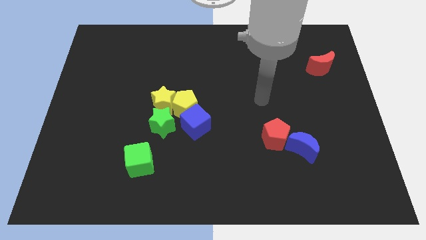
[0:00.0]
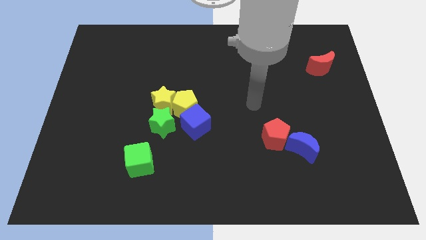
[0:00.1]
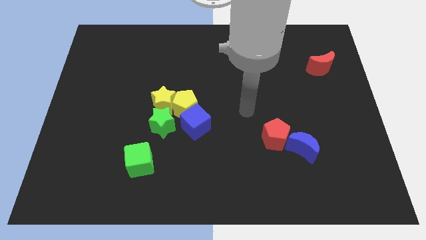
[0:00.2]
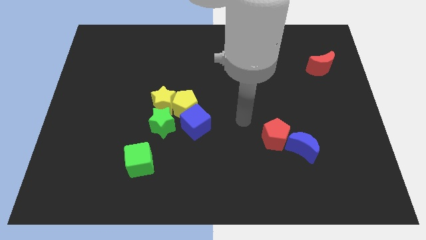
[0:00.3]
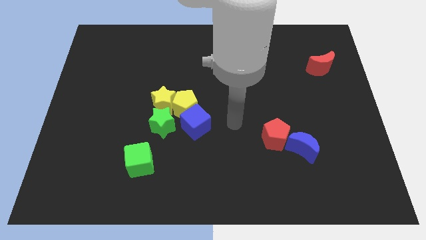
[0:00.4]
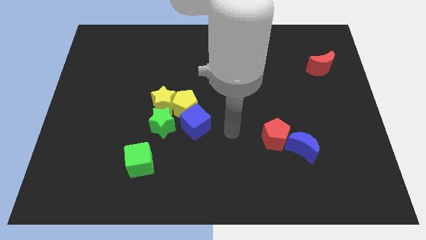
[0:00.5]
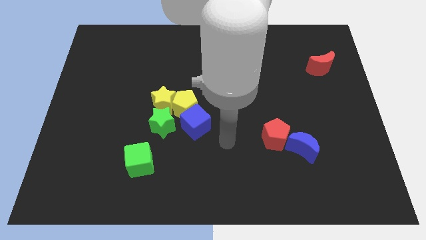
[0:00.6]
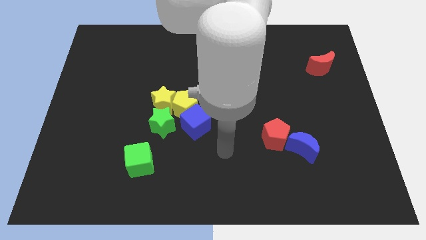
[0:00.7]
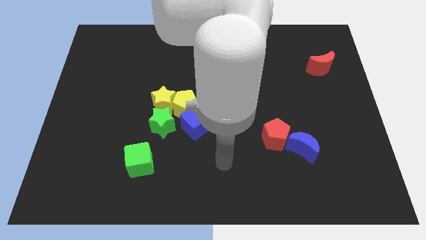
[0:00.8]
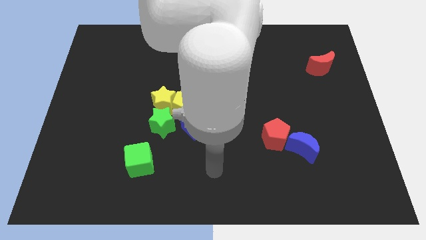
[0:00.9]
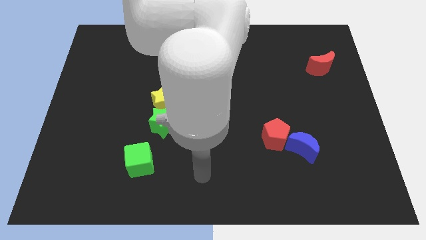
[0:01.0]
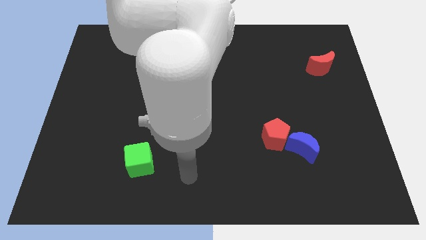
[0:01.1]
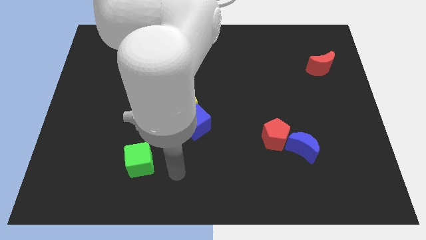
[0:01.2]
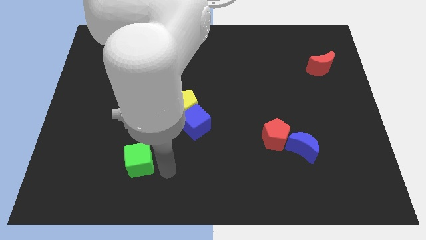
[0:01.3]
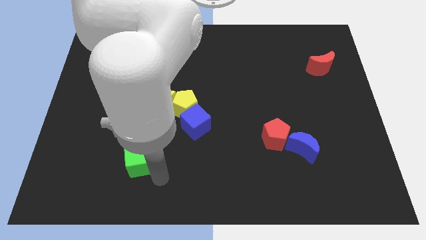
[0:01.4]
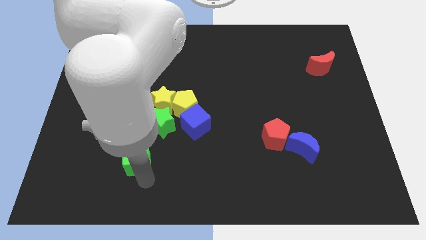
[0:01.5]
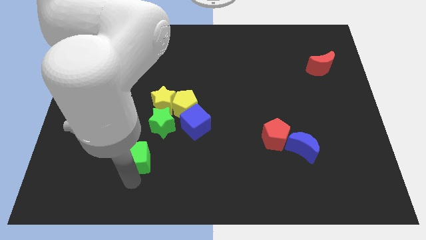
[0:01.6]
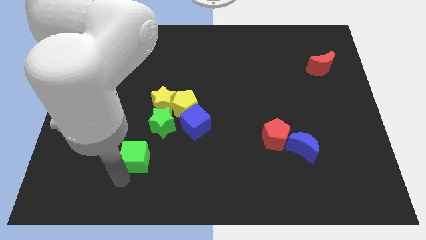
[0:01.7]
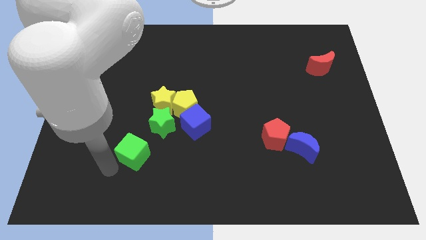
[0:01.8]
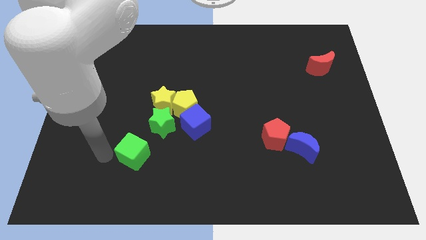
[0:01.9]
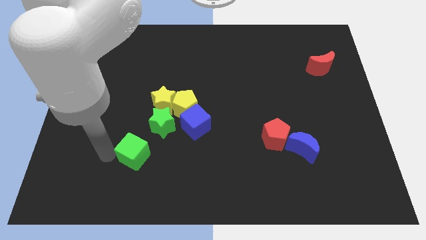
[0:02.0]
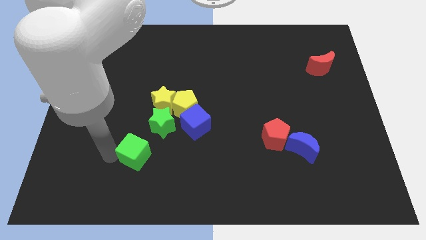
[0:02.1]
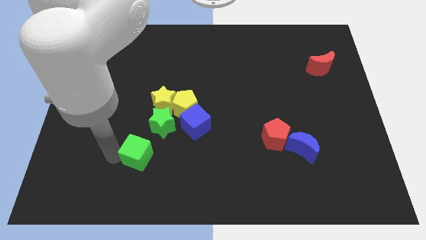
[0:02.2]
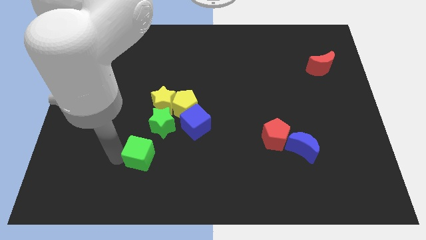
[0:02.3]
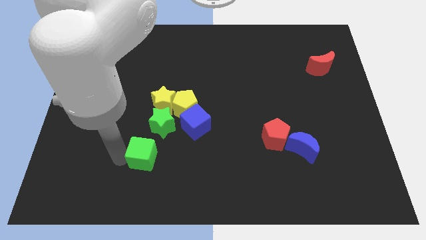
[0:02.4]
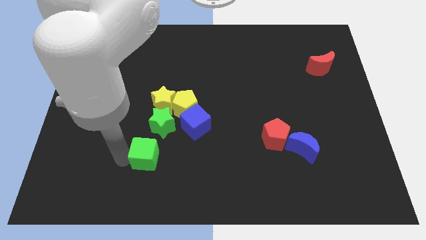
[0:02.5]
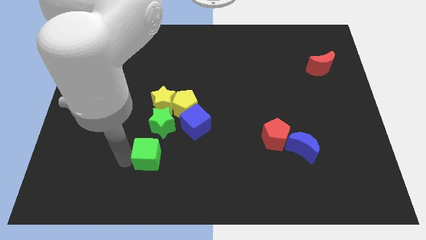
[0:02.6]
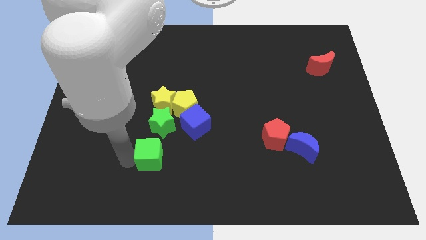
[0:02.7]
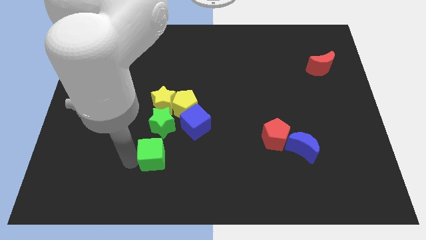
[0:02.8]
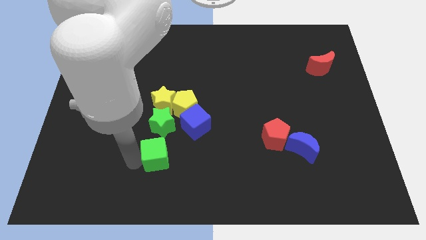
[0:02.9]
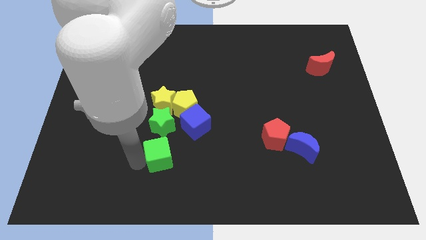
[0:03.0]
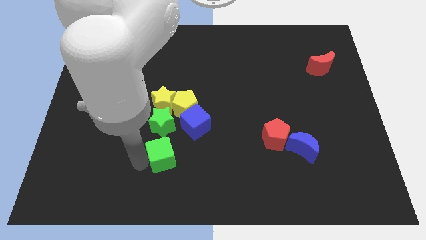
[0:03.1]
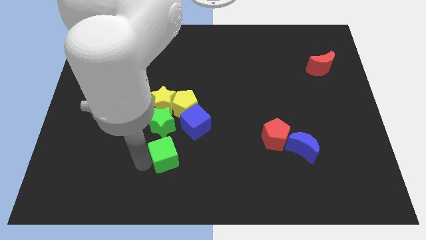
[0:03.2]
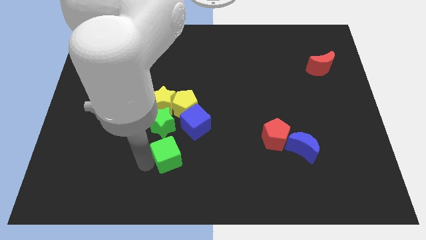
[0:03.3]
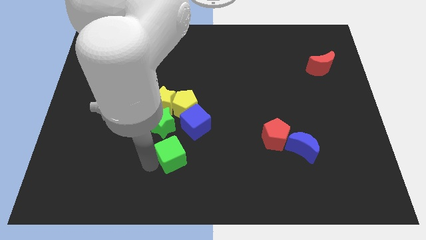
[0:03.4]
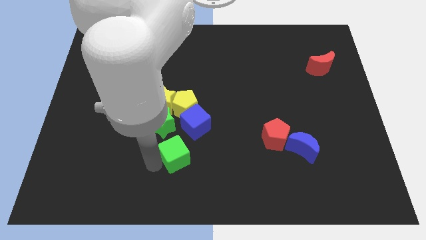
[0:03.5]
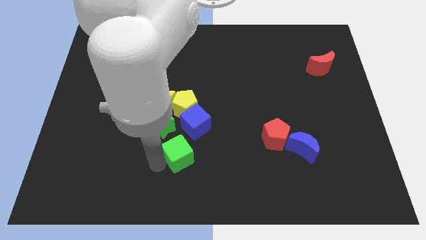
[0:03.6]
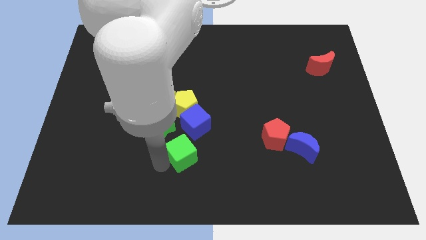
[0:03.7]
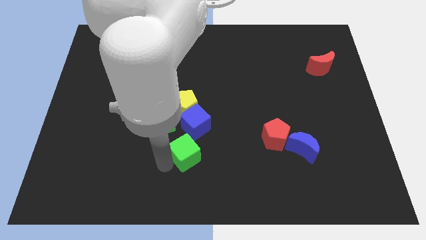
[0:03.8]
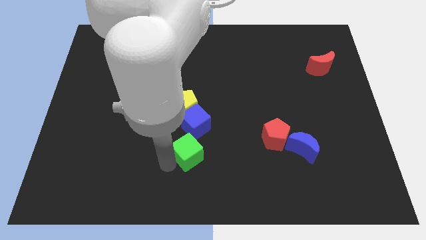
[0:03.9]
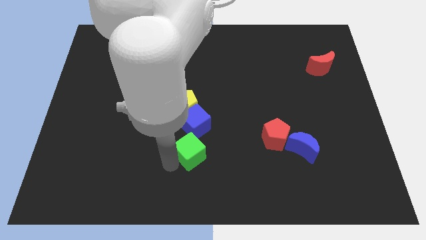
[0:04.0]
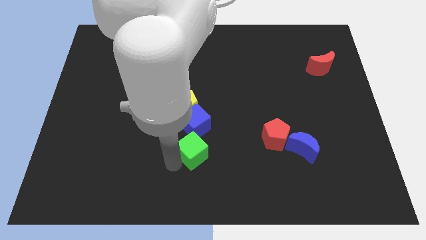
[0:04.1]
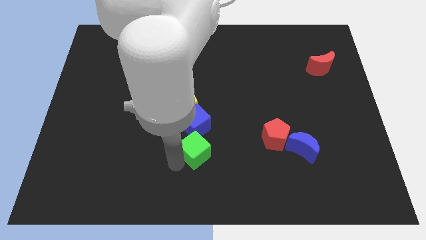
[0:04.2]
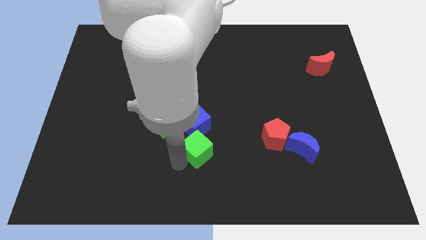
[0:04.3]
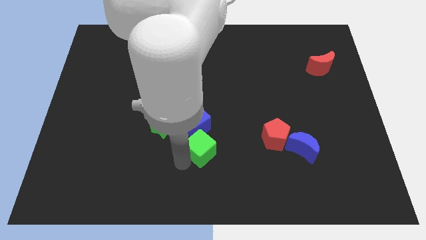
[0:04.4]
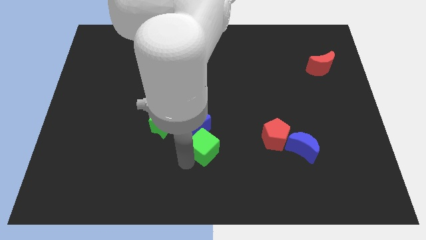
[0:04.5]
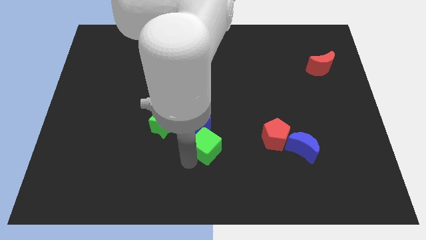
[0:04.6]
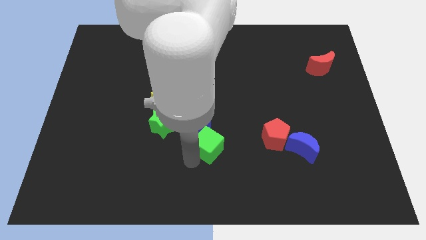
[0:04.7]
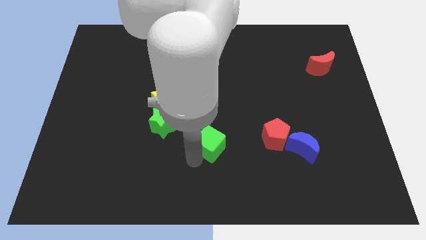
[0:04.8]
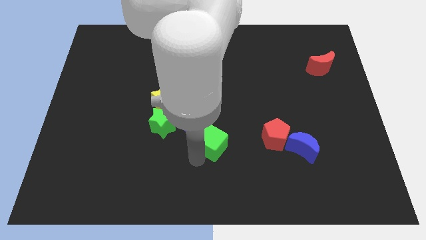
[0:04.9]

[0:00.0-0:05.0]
put the green cube to the middle of the board

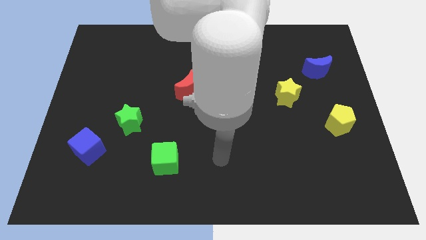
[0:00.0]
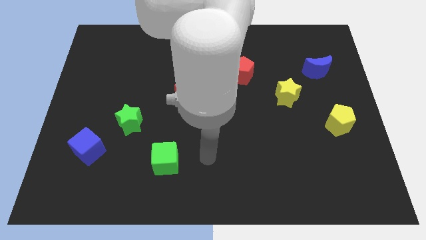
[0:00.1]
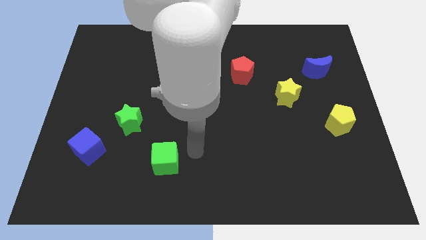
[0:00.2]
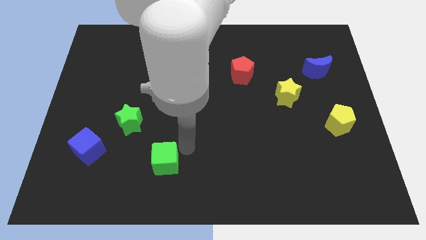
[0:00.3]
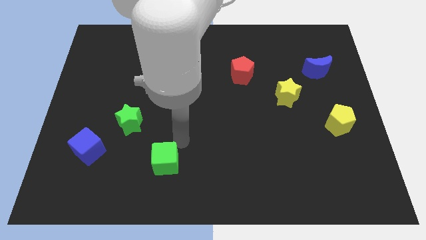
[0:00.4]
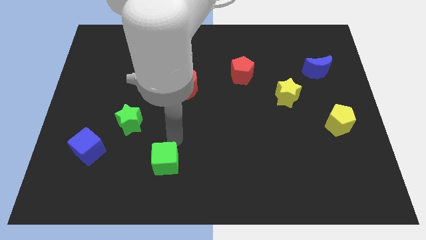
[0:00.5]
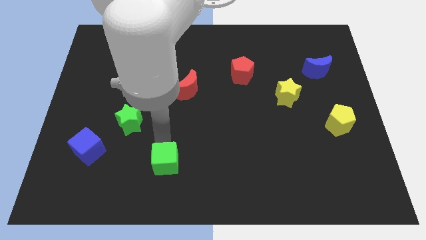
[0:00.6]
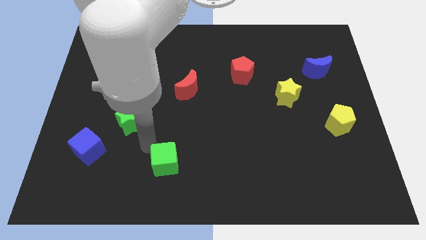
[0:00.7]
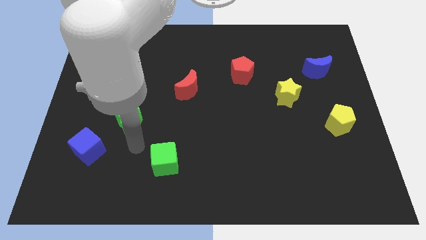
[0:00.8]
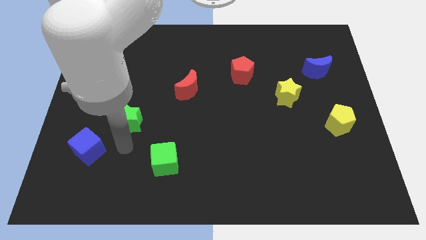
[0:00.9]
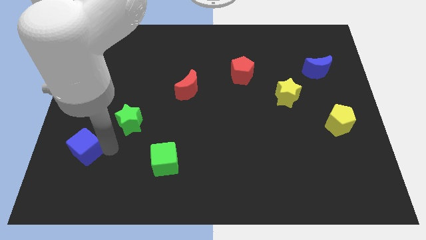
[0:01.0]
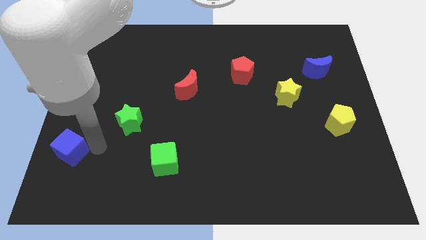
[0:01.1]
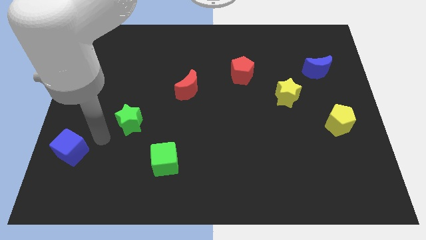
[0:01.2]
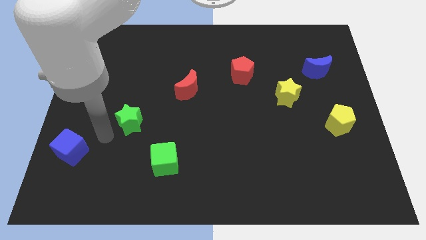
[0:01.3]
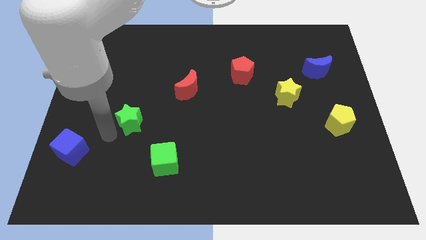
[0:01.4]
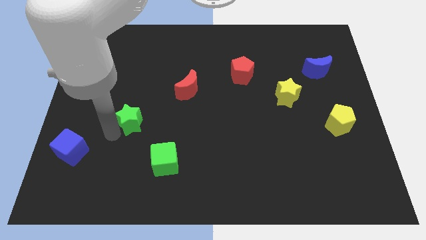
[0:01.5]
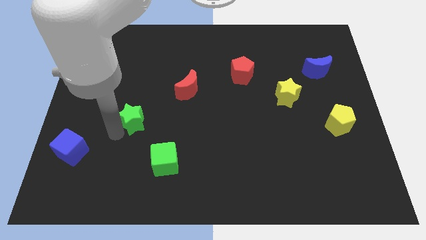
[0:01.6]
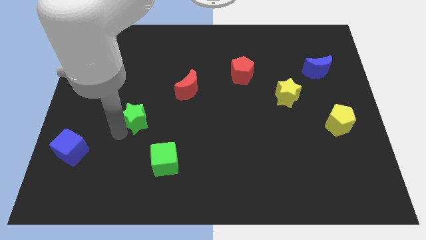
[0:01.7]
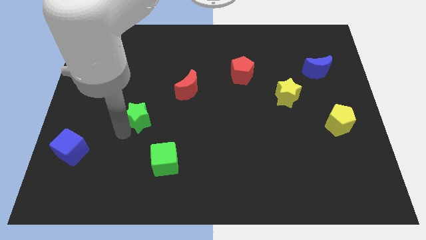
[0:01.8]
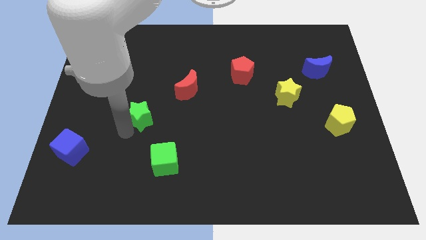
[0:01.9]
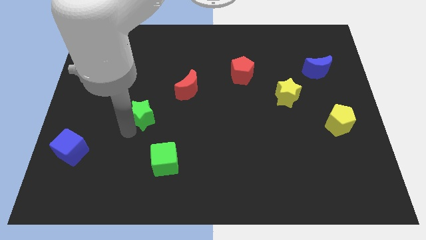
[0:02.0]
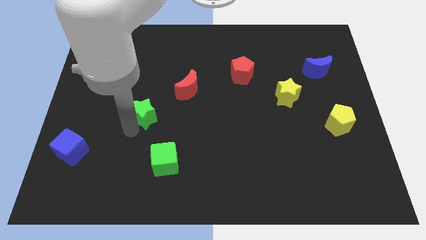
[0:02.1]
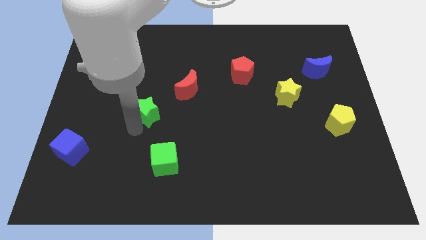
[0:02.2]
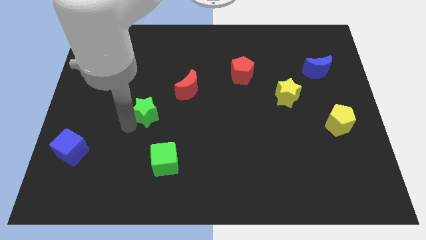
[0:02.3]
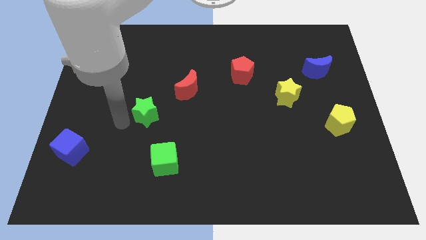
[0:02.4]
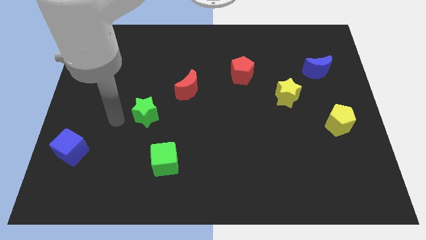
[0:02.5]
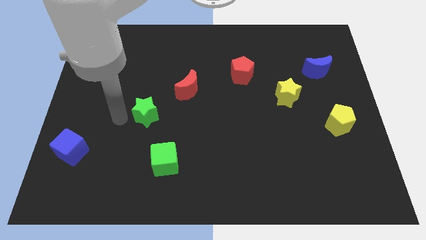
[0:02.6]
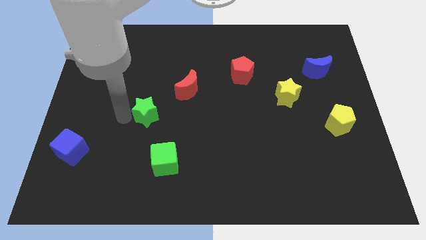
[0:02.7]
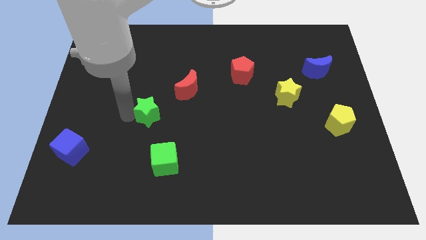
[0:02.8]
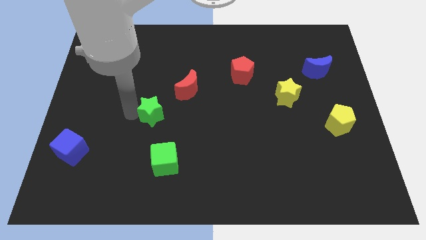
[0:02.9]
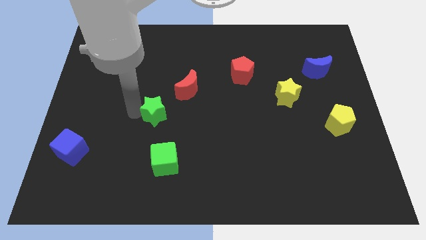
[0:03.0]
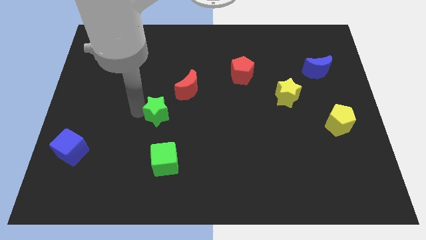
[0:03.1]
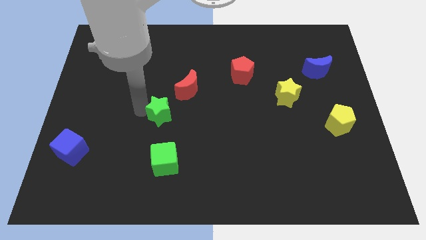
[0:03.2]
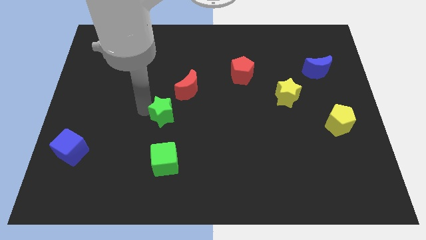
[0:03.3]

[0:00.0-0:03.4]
slide the green star to the center
